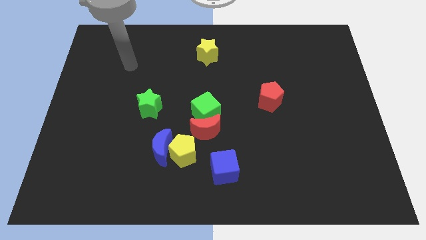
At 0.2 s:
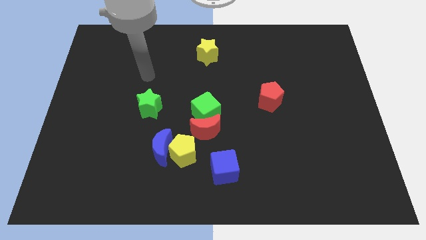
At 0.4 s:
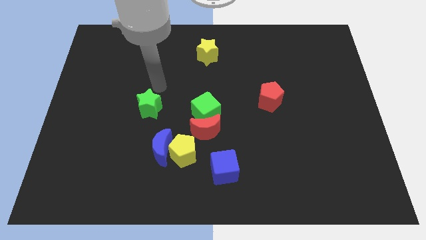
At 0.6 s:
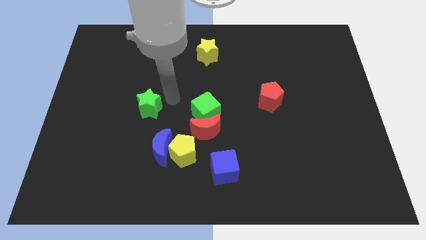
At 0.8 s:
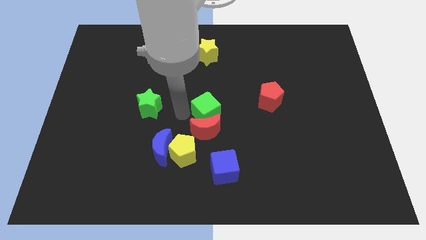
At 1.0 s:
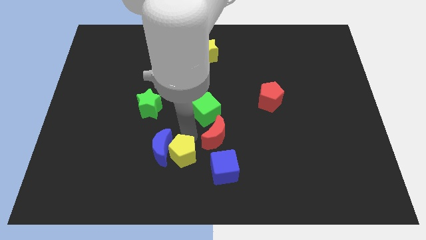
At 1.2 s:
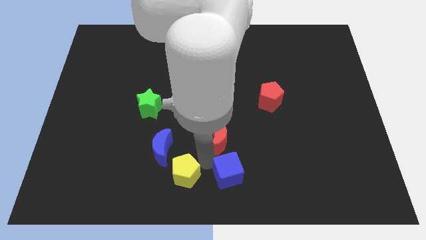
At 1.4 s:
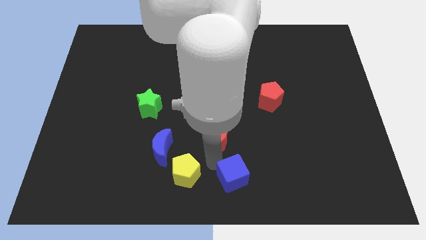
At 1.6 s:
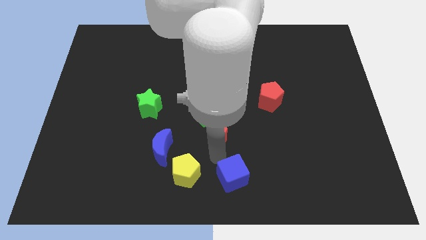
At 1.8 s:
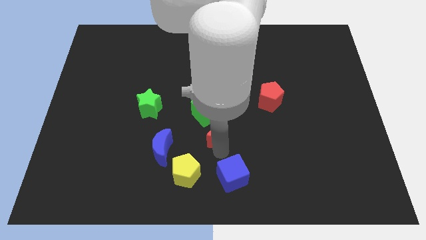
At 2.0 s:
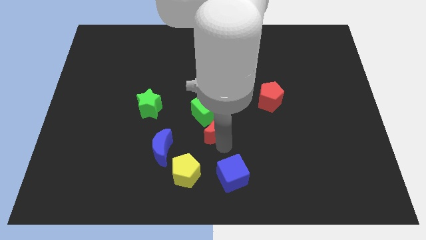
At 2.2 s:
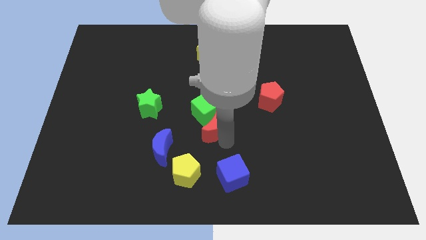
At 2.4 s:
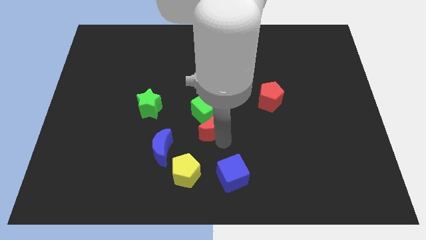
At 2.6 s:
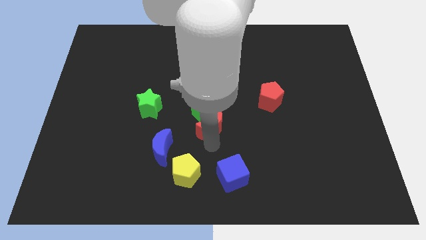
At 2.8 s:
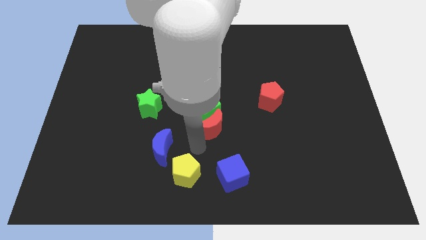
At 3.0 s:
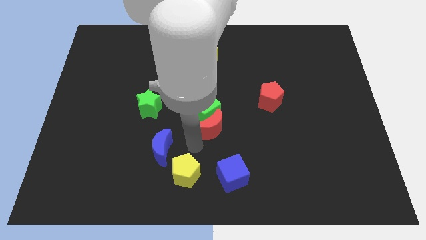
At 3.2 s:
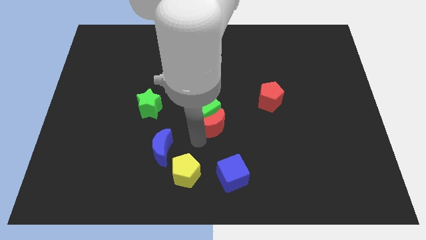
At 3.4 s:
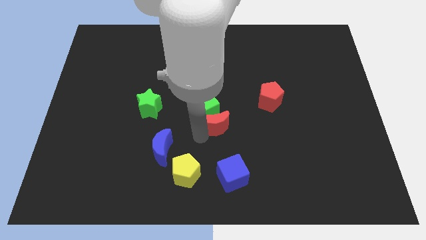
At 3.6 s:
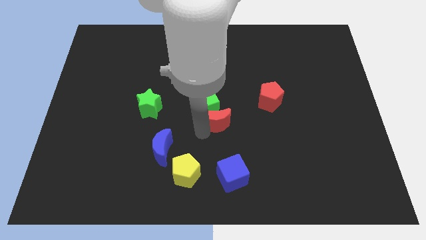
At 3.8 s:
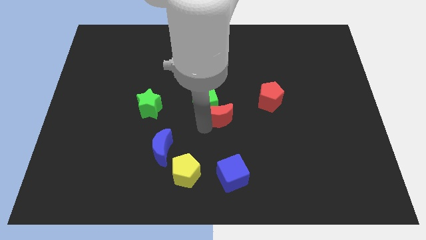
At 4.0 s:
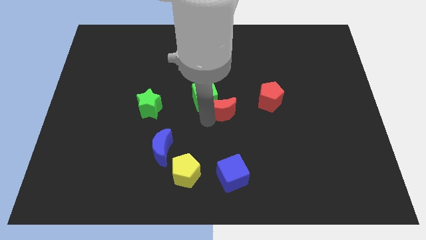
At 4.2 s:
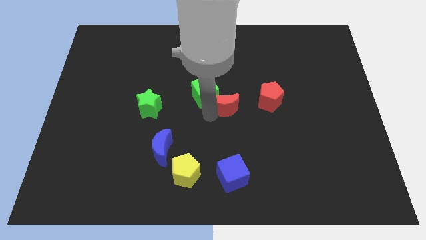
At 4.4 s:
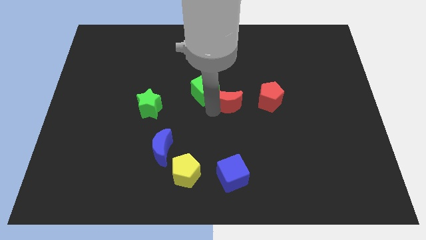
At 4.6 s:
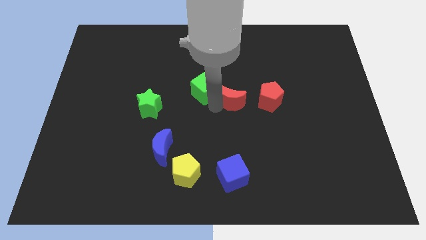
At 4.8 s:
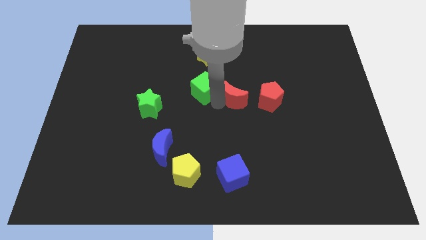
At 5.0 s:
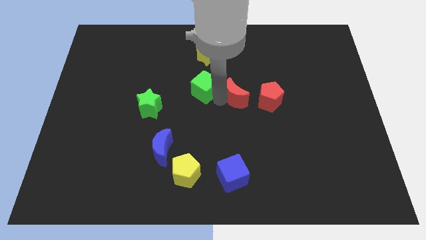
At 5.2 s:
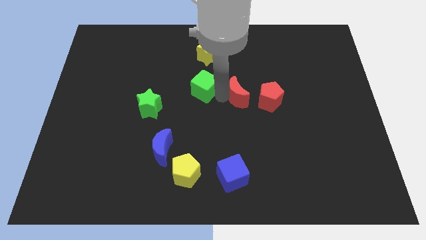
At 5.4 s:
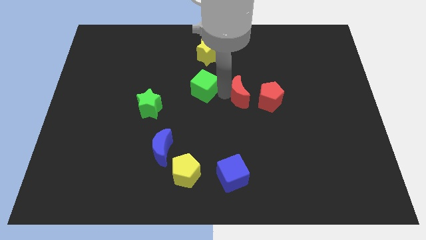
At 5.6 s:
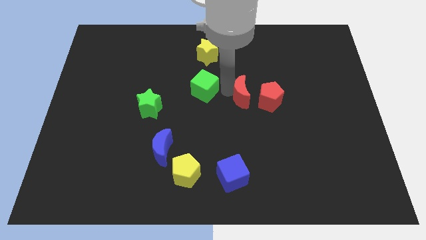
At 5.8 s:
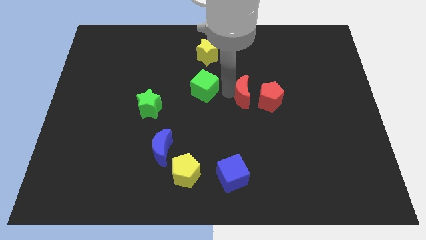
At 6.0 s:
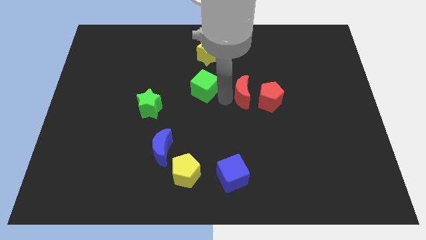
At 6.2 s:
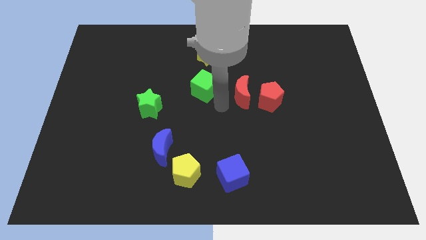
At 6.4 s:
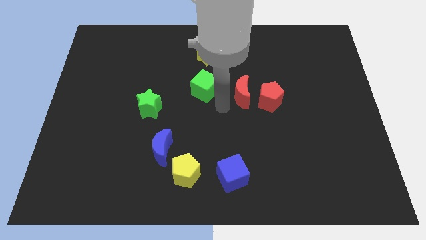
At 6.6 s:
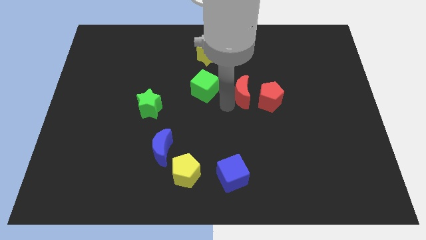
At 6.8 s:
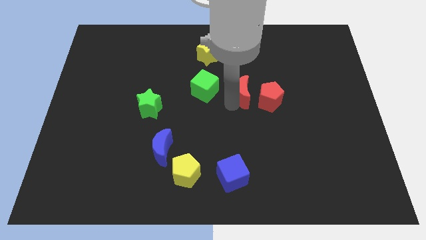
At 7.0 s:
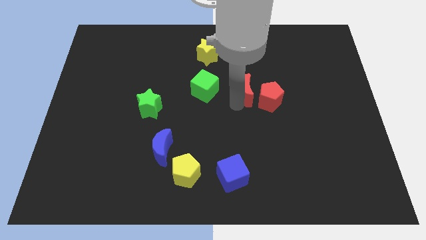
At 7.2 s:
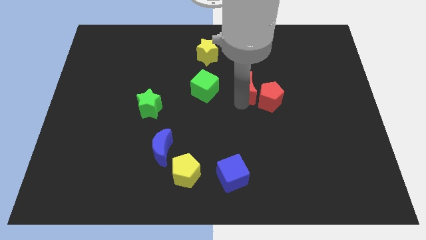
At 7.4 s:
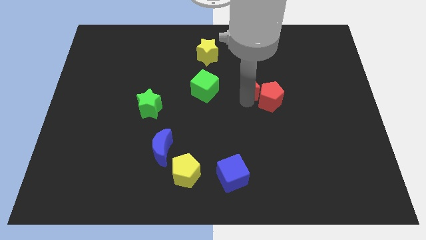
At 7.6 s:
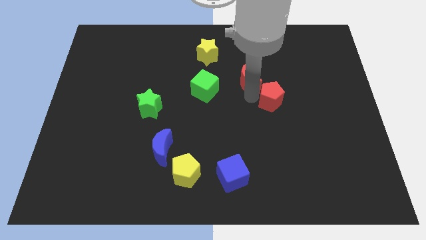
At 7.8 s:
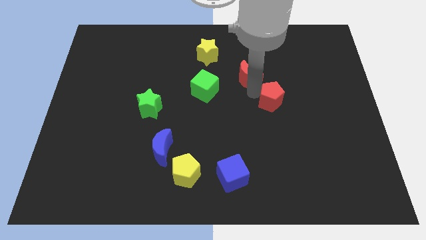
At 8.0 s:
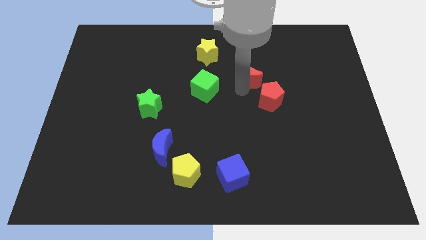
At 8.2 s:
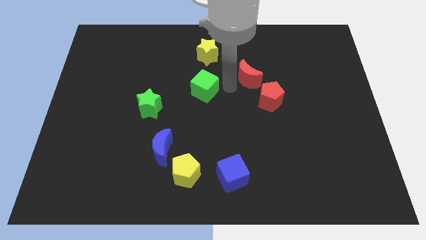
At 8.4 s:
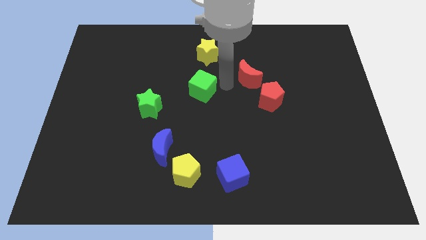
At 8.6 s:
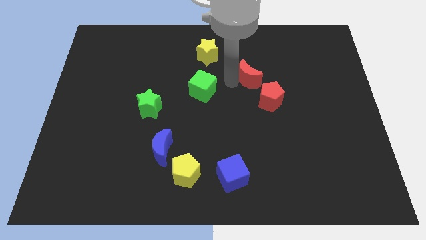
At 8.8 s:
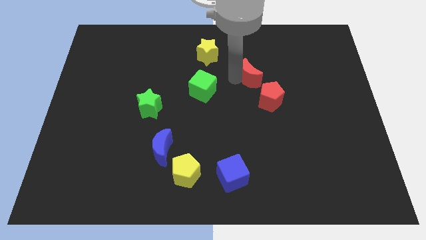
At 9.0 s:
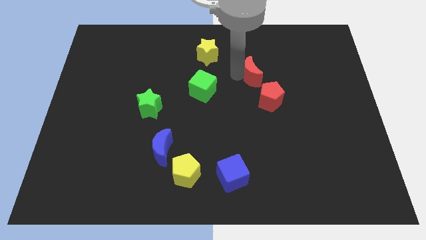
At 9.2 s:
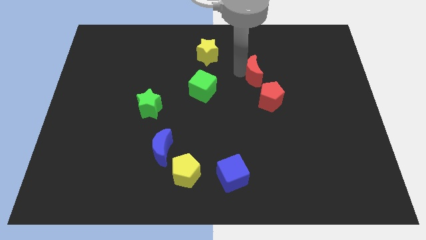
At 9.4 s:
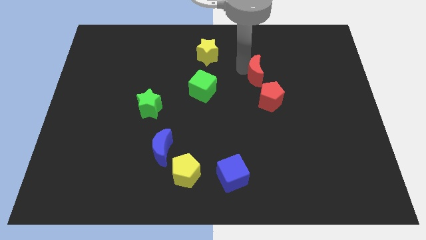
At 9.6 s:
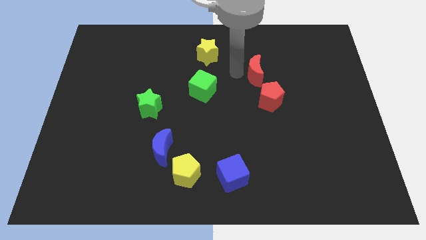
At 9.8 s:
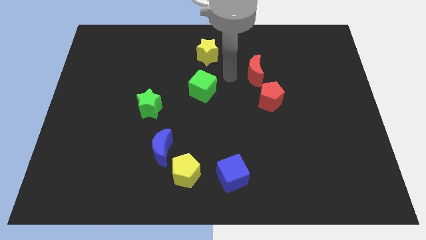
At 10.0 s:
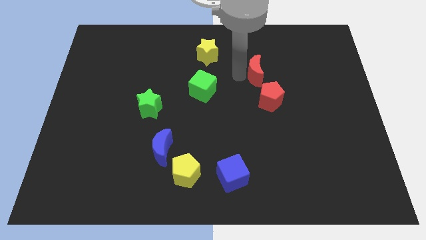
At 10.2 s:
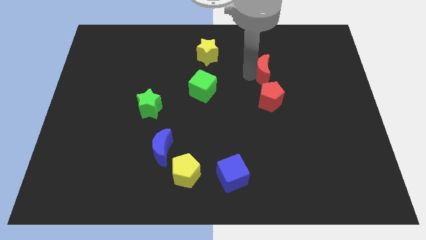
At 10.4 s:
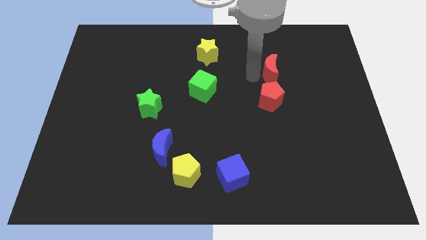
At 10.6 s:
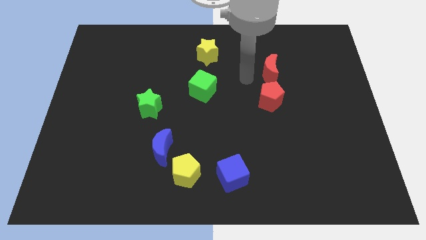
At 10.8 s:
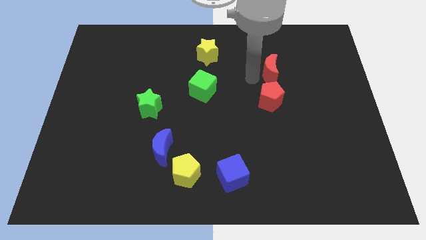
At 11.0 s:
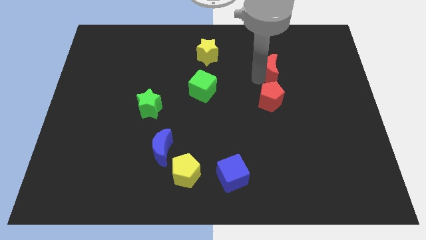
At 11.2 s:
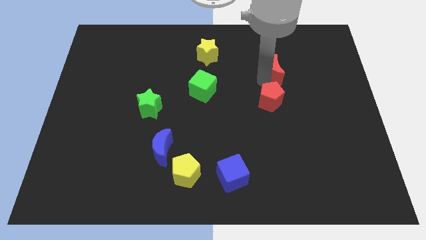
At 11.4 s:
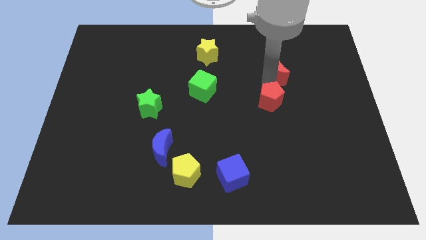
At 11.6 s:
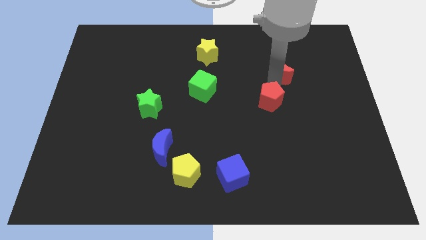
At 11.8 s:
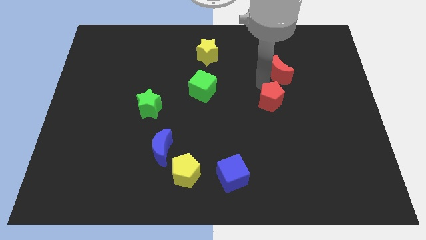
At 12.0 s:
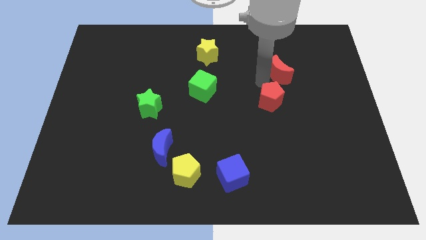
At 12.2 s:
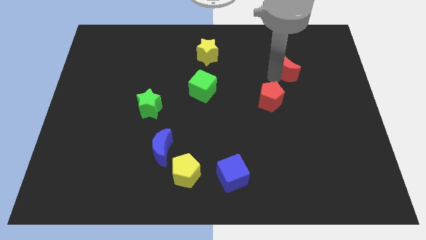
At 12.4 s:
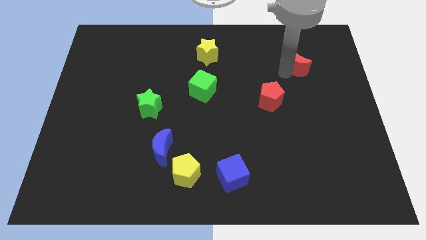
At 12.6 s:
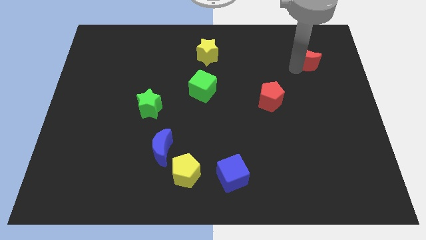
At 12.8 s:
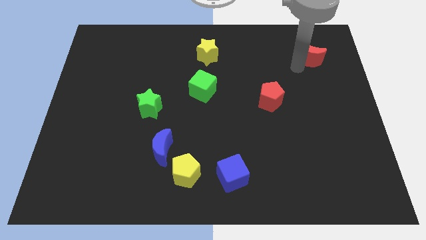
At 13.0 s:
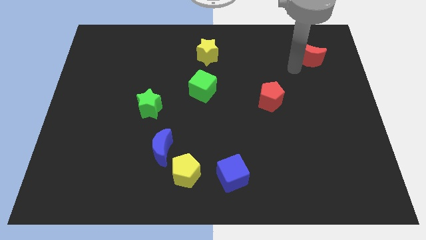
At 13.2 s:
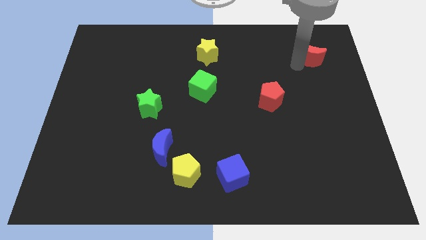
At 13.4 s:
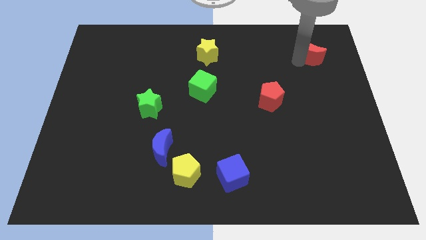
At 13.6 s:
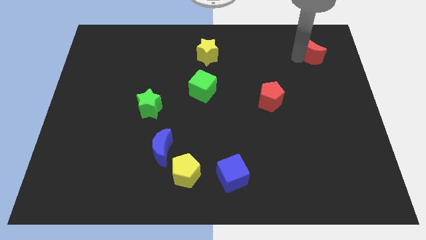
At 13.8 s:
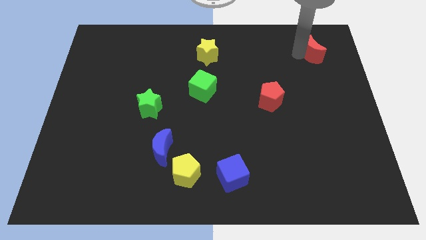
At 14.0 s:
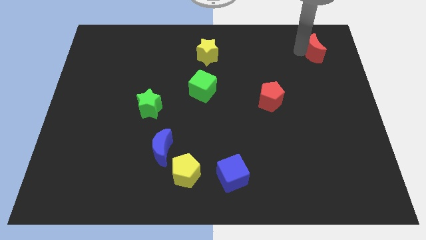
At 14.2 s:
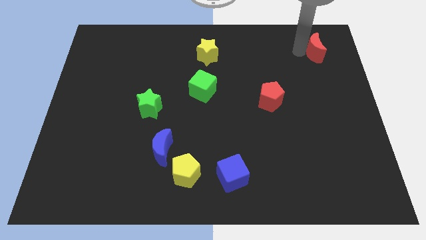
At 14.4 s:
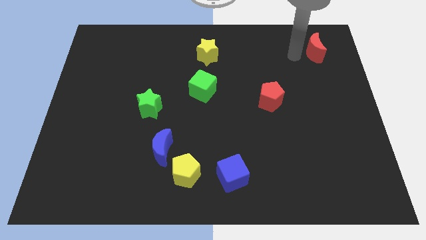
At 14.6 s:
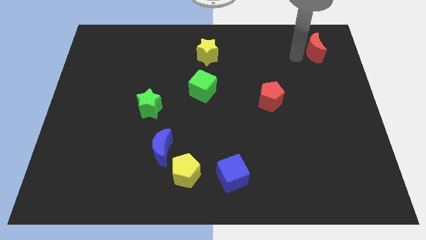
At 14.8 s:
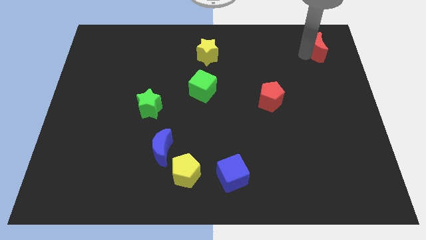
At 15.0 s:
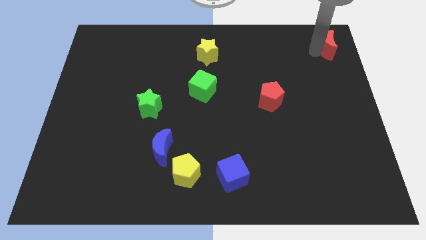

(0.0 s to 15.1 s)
push the red moon to the upper right corner
